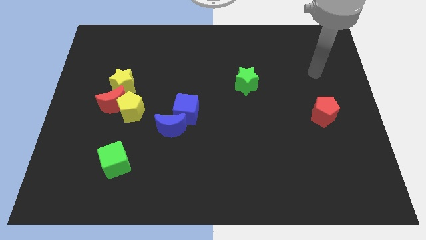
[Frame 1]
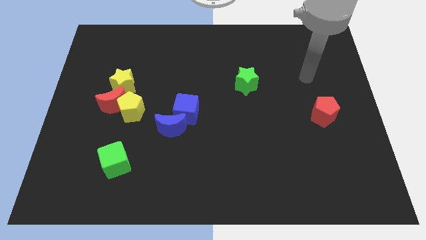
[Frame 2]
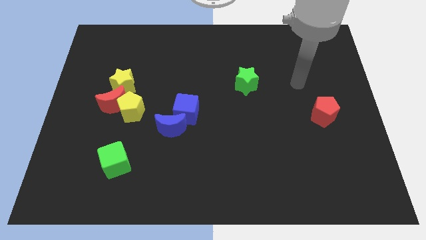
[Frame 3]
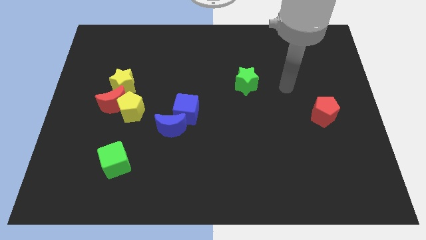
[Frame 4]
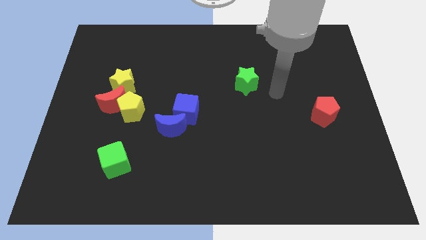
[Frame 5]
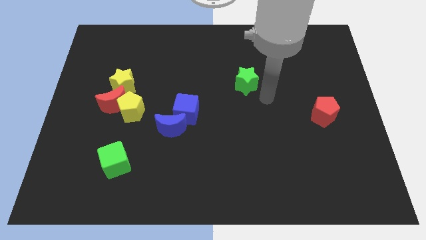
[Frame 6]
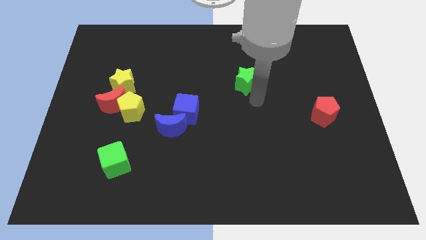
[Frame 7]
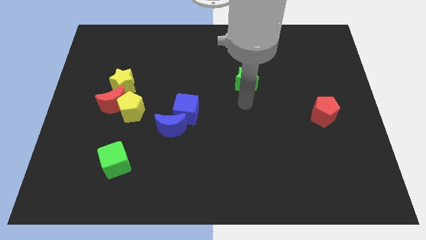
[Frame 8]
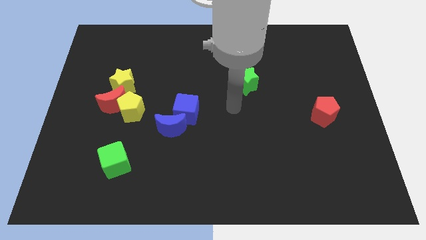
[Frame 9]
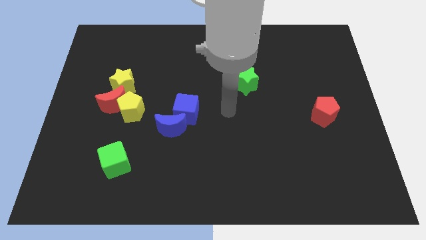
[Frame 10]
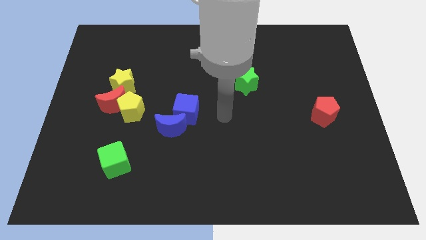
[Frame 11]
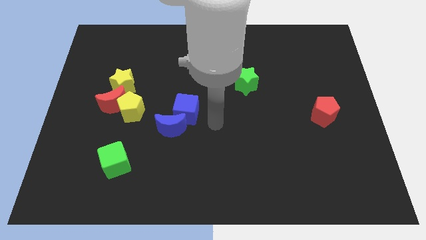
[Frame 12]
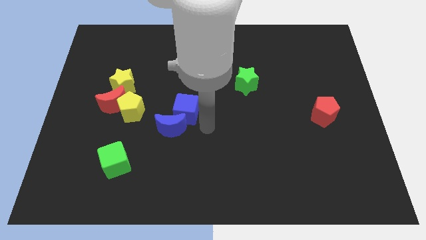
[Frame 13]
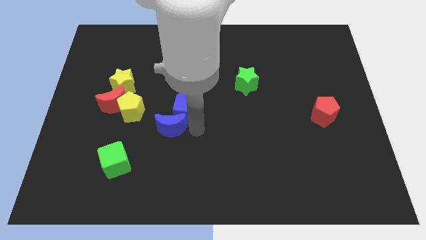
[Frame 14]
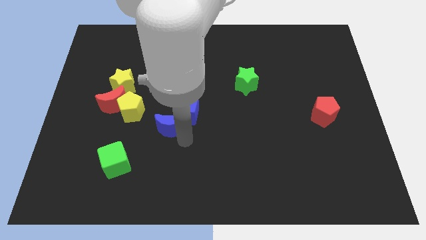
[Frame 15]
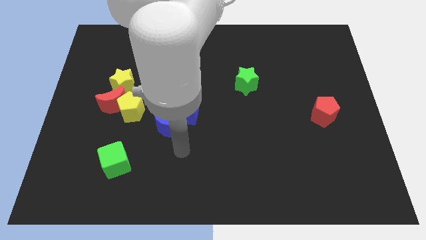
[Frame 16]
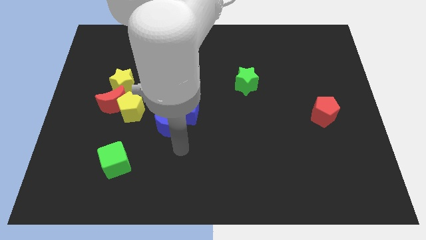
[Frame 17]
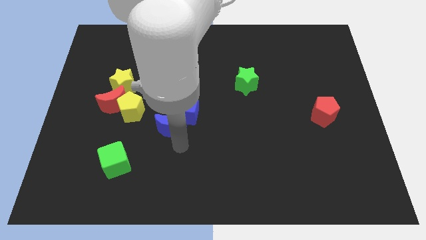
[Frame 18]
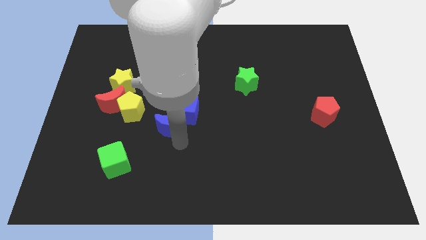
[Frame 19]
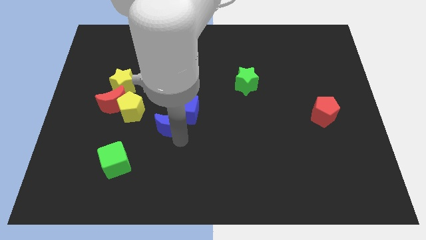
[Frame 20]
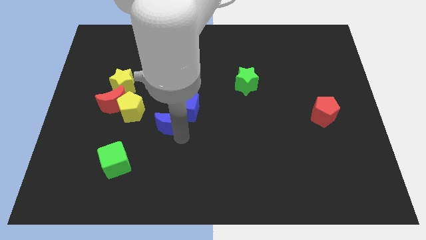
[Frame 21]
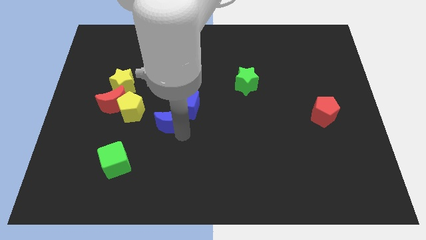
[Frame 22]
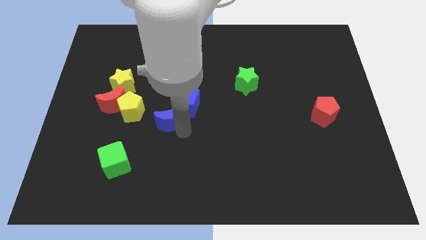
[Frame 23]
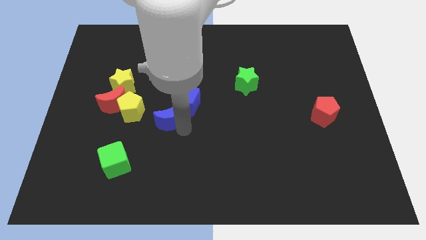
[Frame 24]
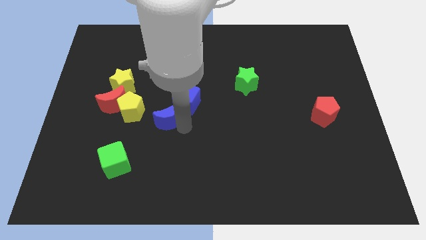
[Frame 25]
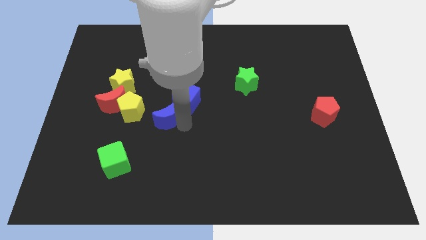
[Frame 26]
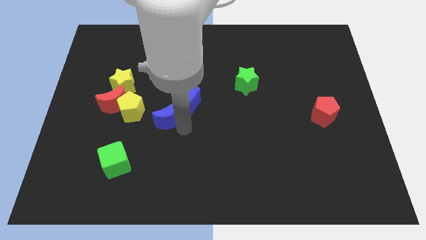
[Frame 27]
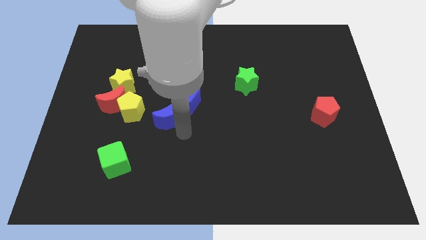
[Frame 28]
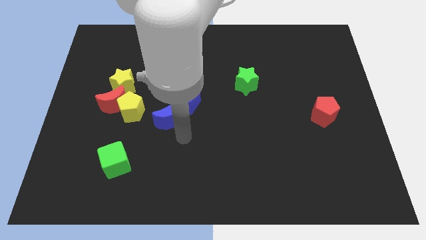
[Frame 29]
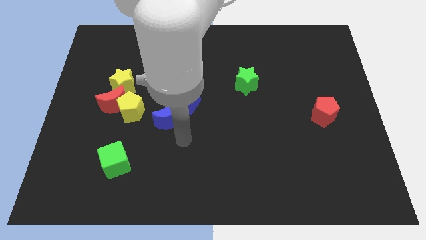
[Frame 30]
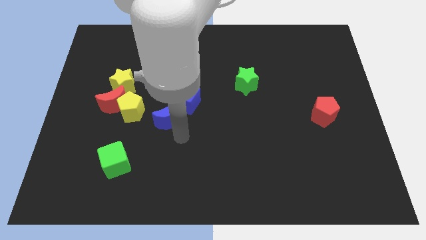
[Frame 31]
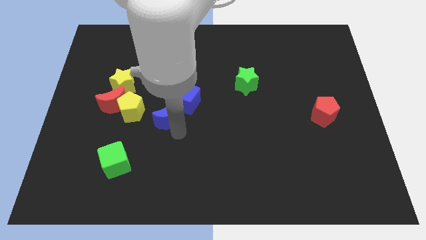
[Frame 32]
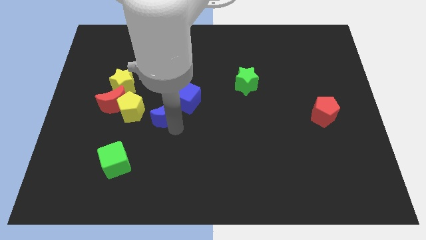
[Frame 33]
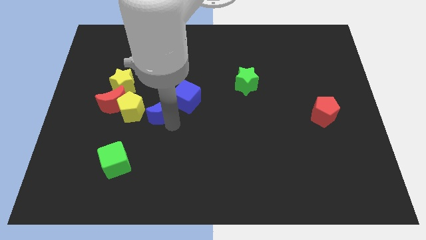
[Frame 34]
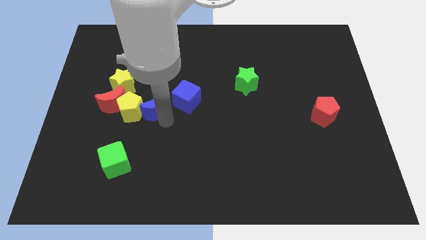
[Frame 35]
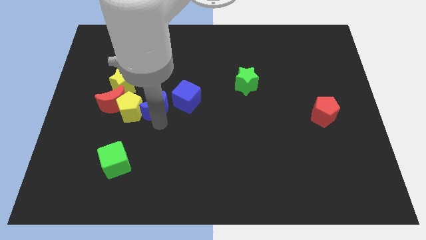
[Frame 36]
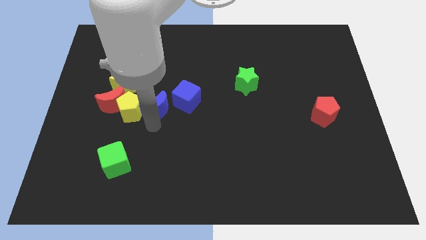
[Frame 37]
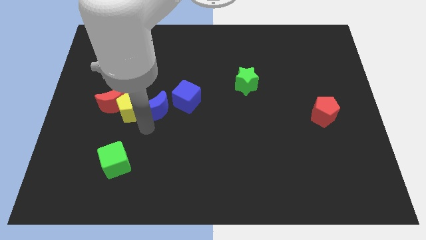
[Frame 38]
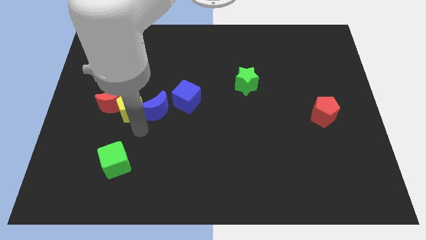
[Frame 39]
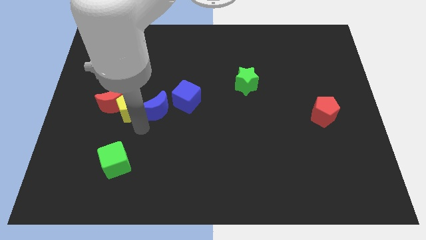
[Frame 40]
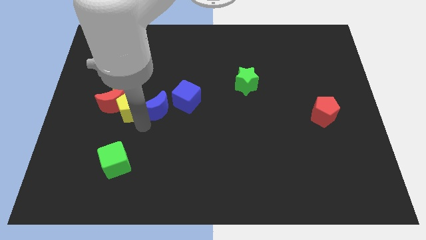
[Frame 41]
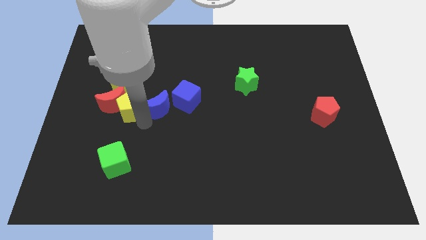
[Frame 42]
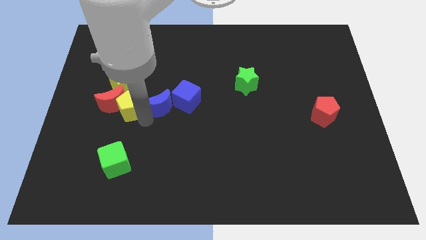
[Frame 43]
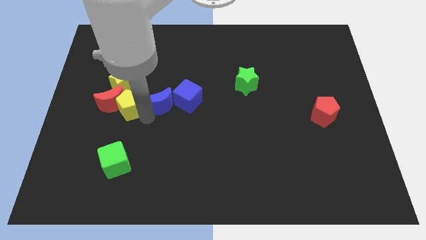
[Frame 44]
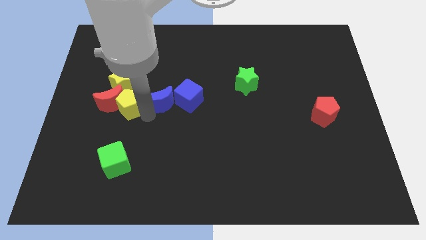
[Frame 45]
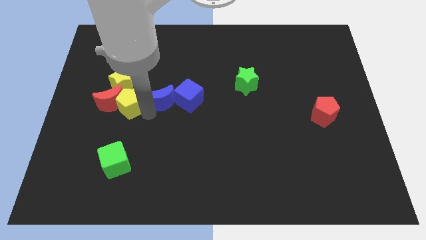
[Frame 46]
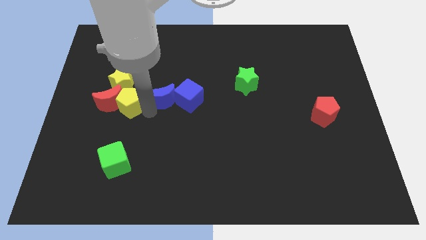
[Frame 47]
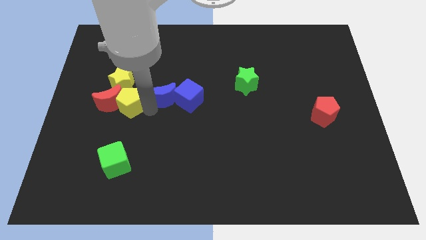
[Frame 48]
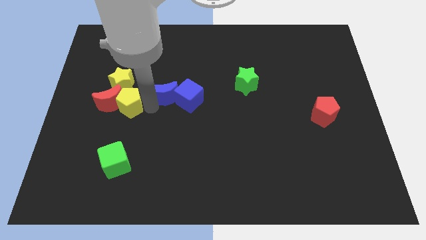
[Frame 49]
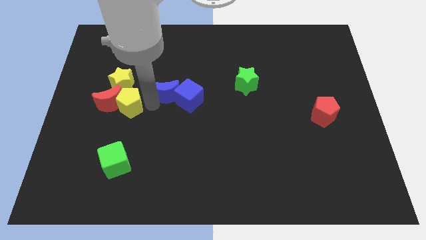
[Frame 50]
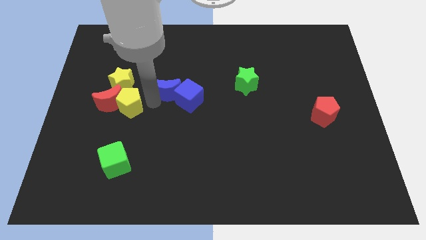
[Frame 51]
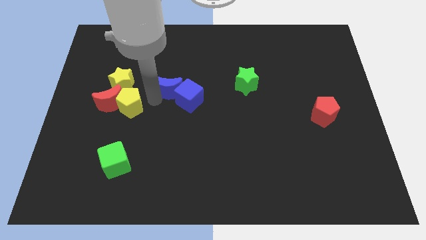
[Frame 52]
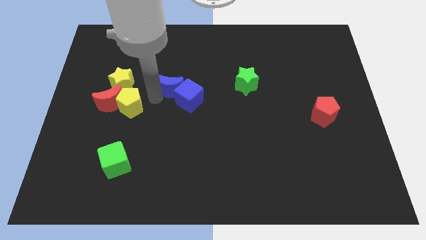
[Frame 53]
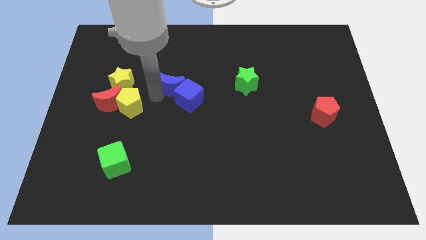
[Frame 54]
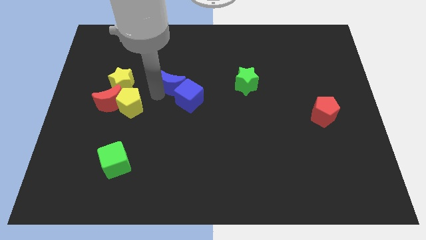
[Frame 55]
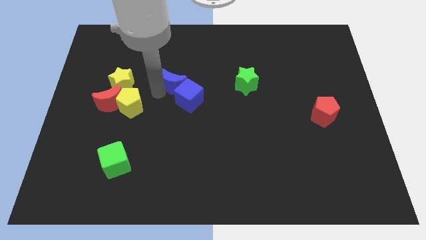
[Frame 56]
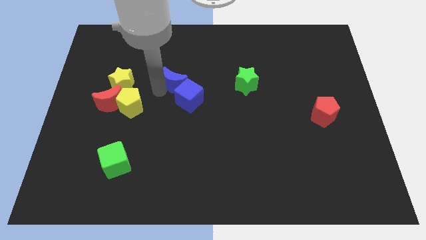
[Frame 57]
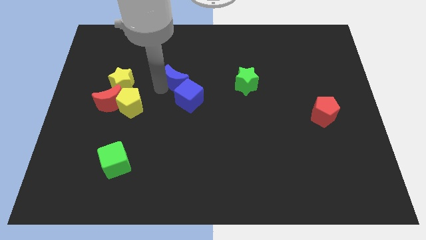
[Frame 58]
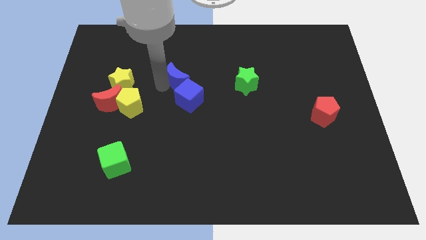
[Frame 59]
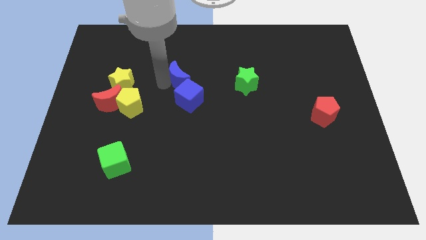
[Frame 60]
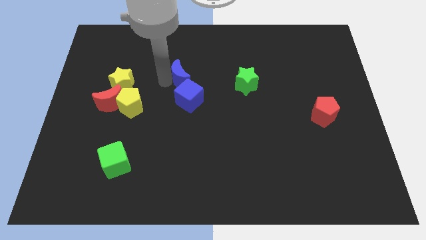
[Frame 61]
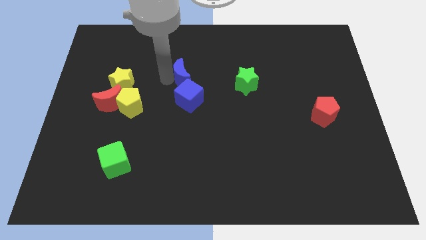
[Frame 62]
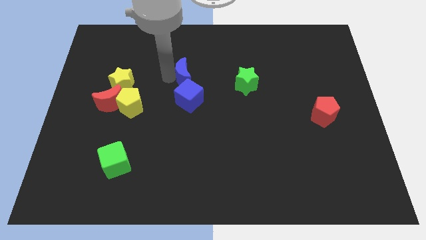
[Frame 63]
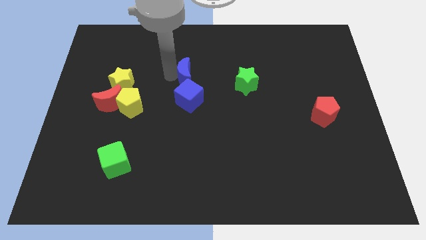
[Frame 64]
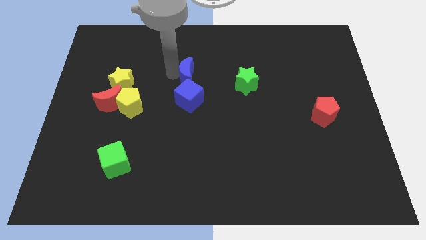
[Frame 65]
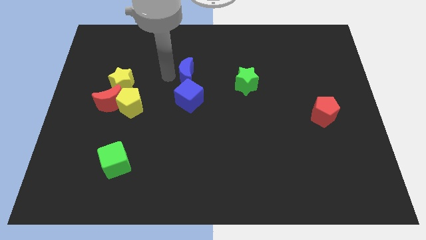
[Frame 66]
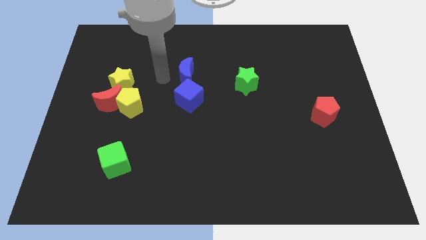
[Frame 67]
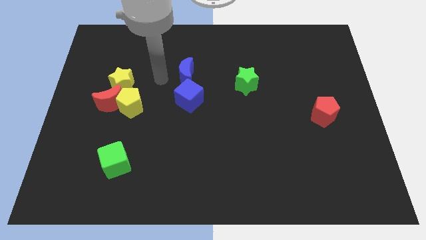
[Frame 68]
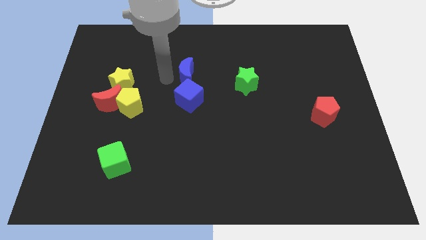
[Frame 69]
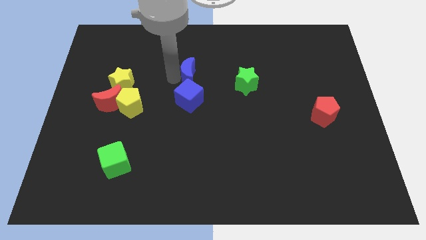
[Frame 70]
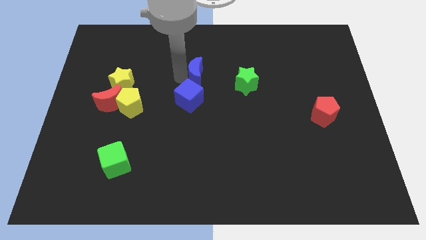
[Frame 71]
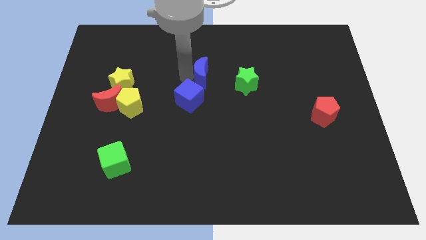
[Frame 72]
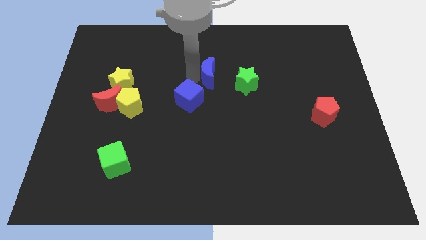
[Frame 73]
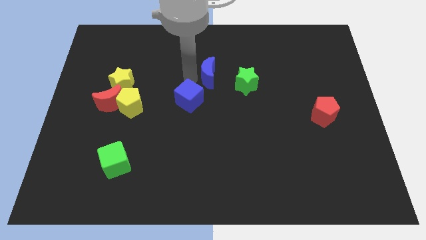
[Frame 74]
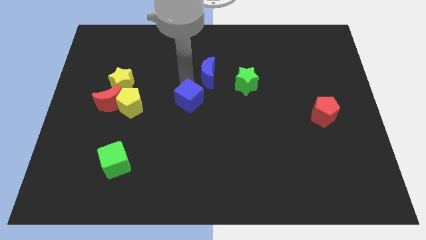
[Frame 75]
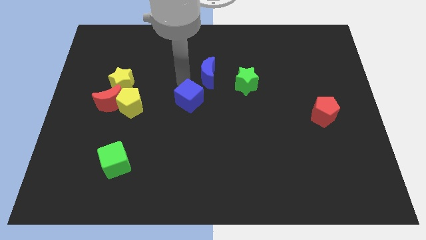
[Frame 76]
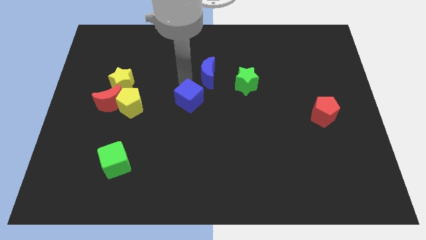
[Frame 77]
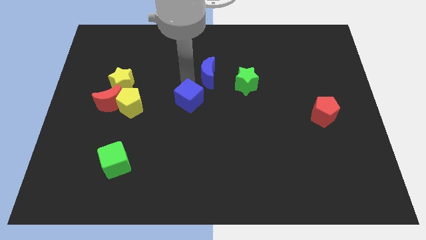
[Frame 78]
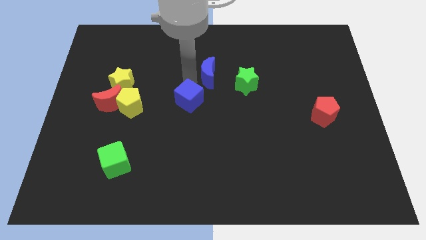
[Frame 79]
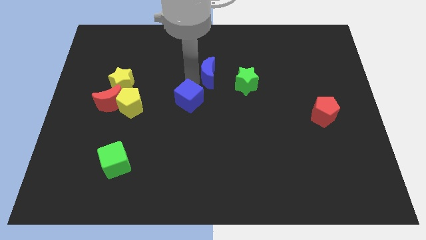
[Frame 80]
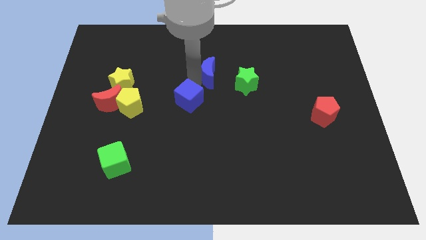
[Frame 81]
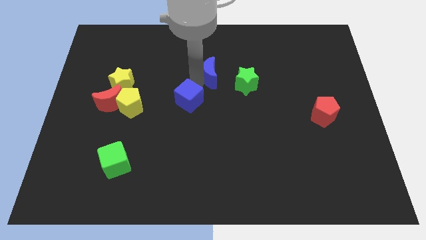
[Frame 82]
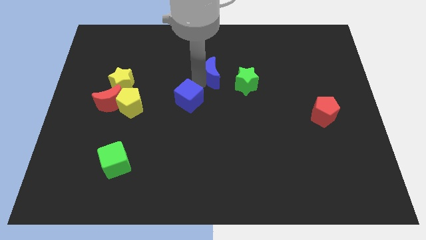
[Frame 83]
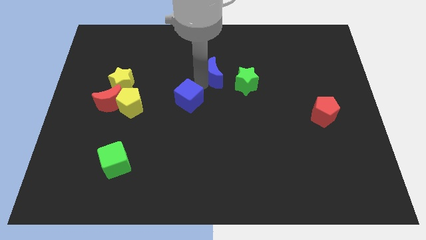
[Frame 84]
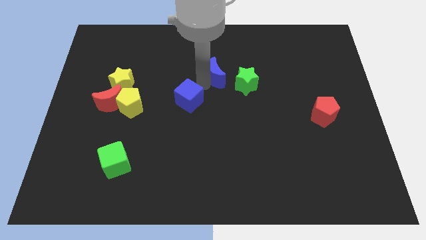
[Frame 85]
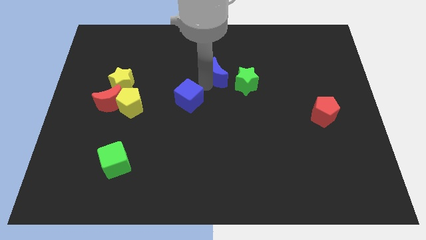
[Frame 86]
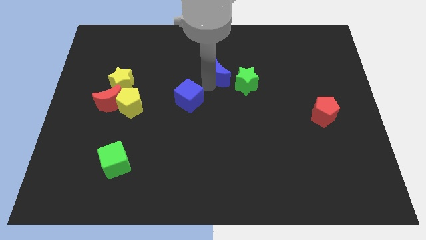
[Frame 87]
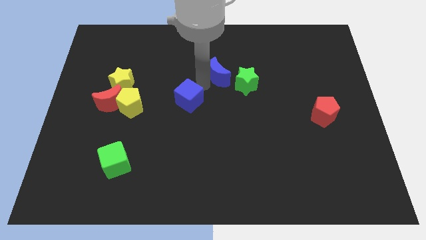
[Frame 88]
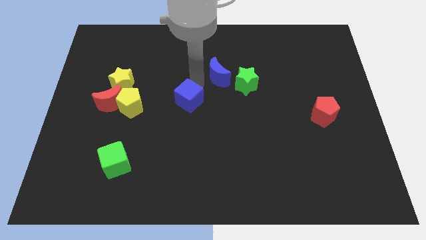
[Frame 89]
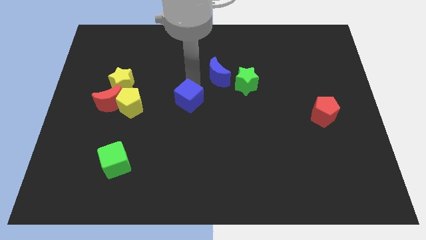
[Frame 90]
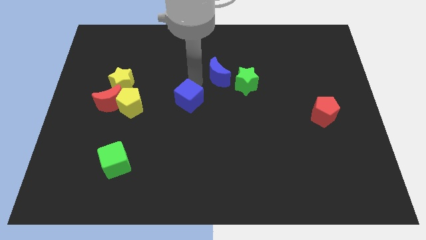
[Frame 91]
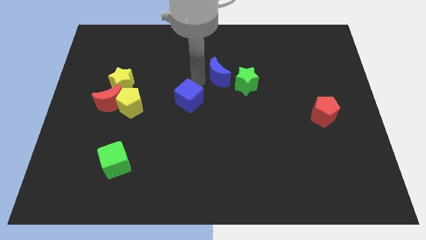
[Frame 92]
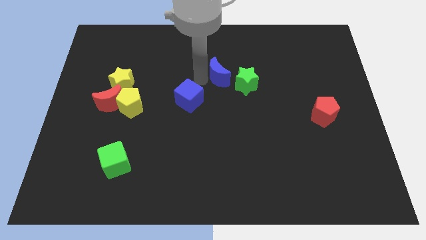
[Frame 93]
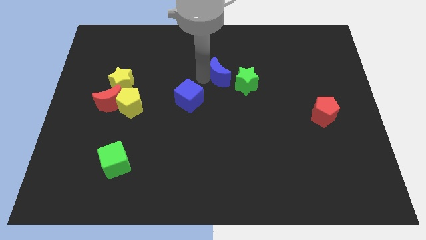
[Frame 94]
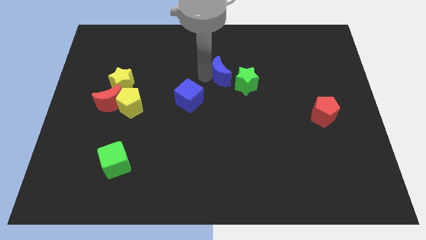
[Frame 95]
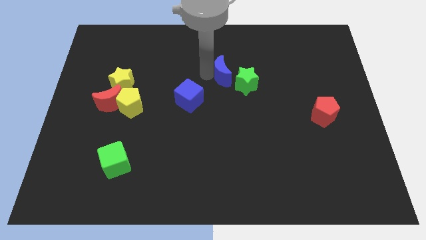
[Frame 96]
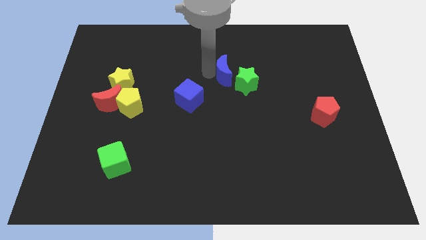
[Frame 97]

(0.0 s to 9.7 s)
move the blue moon up and to the right
